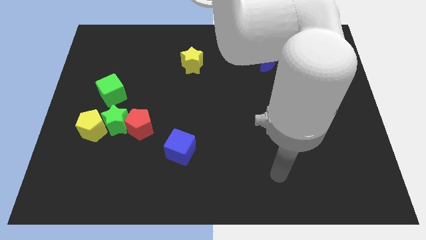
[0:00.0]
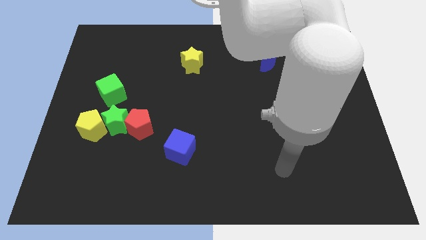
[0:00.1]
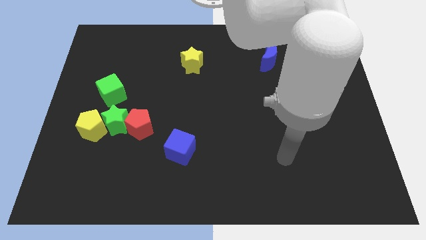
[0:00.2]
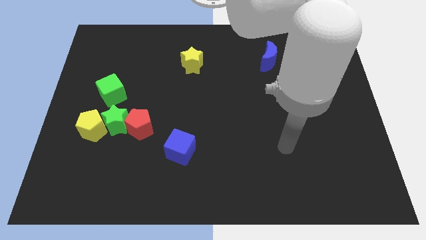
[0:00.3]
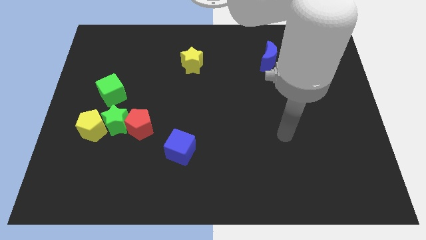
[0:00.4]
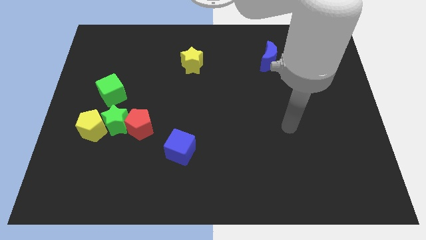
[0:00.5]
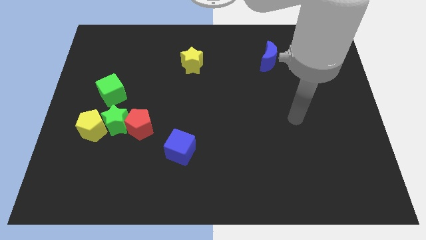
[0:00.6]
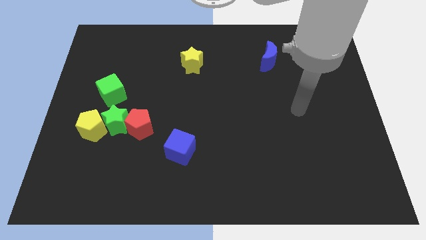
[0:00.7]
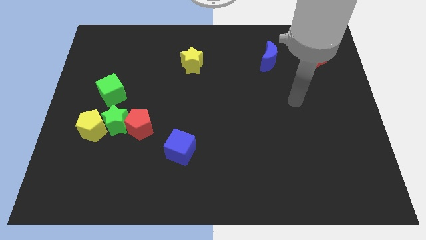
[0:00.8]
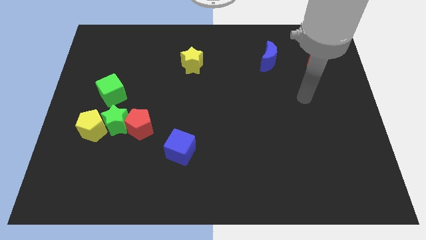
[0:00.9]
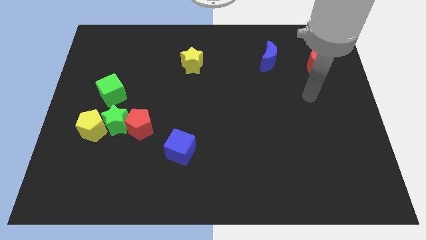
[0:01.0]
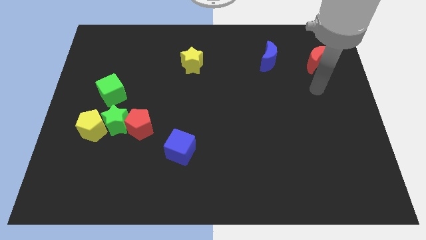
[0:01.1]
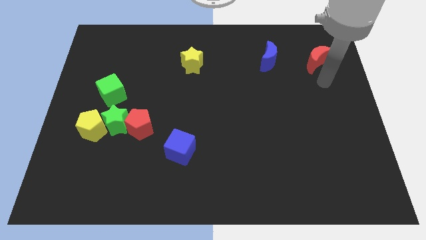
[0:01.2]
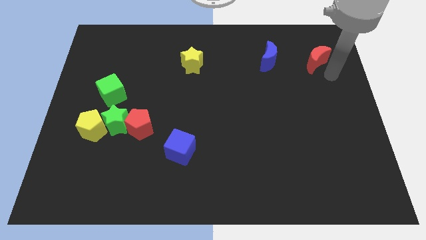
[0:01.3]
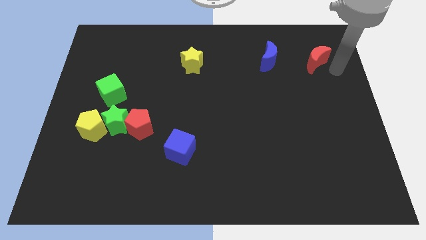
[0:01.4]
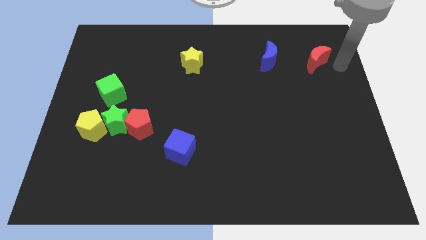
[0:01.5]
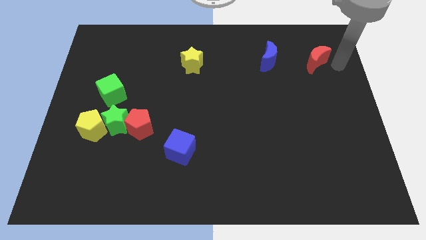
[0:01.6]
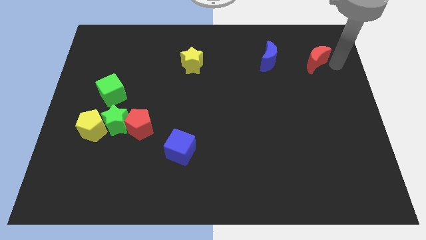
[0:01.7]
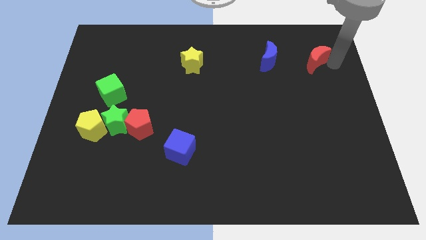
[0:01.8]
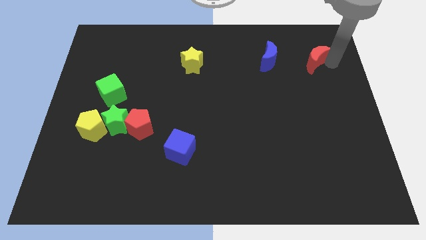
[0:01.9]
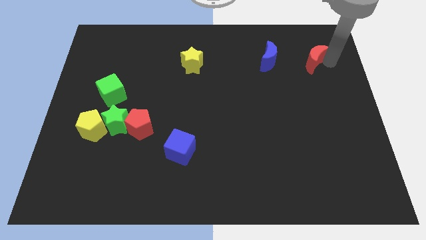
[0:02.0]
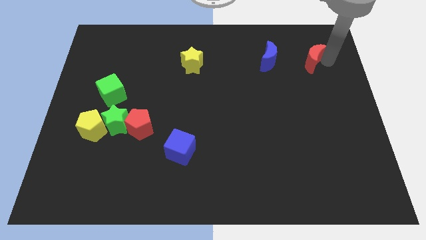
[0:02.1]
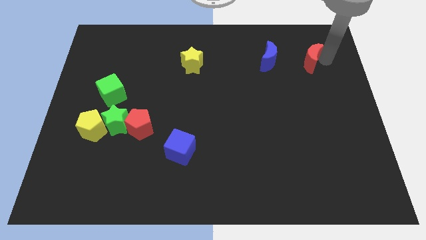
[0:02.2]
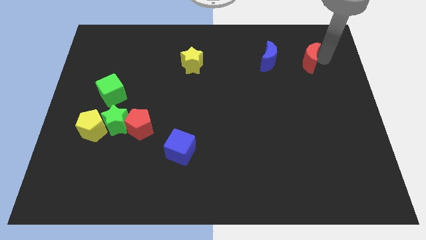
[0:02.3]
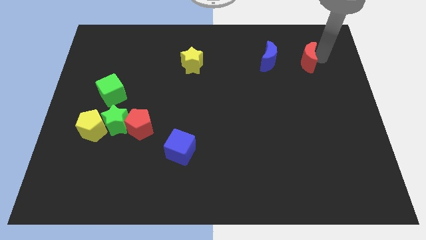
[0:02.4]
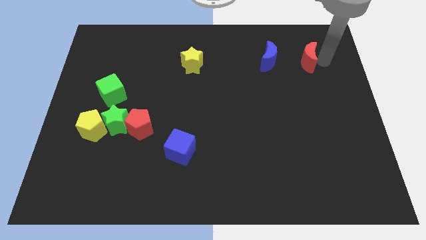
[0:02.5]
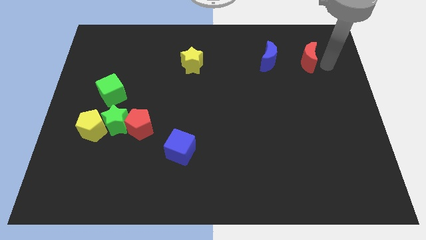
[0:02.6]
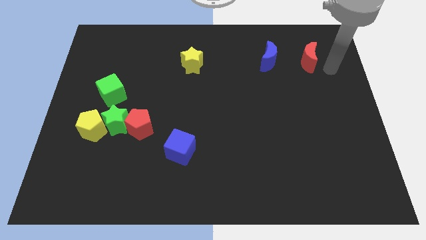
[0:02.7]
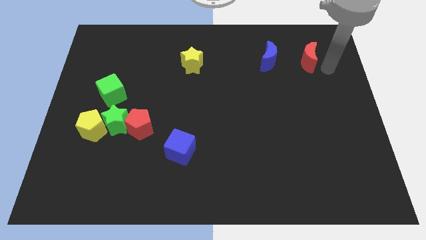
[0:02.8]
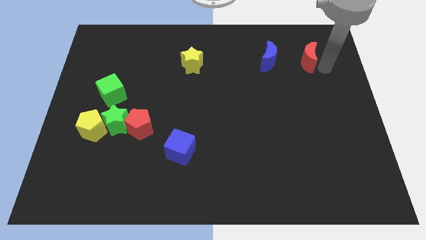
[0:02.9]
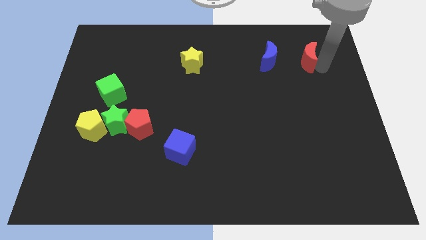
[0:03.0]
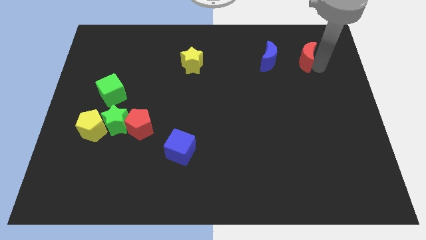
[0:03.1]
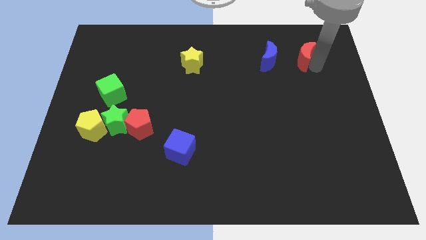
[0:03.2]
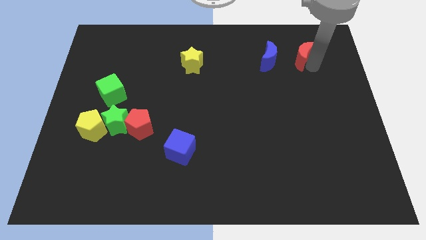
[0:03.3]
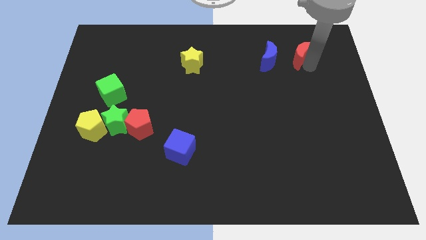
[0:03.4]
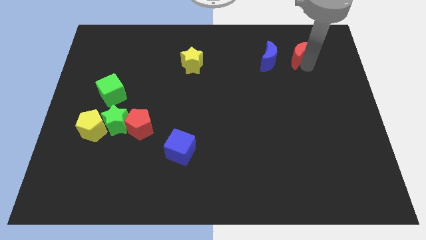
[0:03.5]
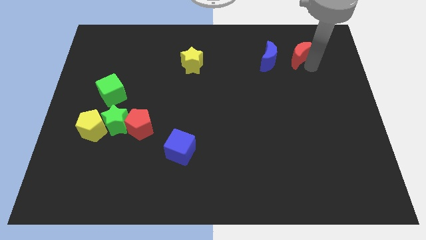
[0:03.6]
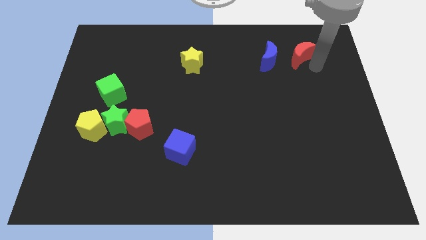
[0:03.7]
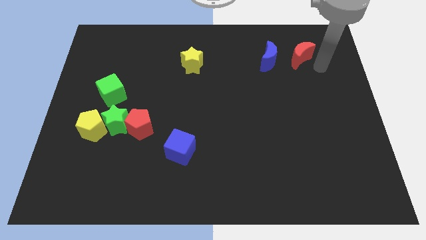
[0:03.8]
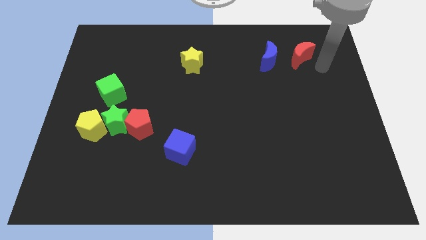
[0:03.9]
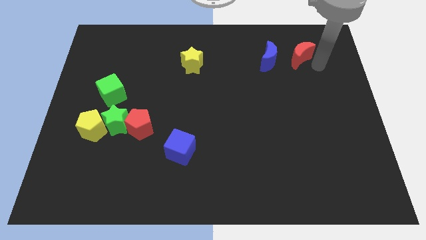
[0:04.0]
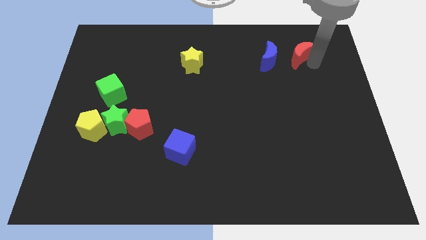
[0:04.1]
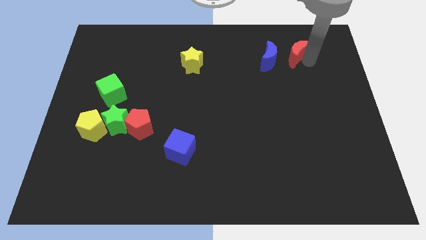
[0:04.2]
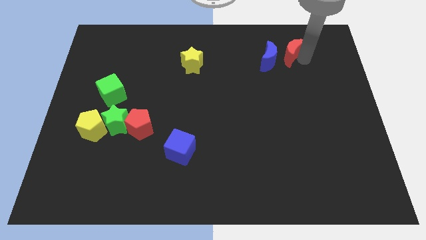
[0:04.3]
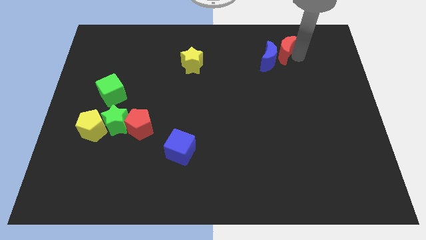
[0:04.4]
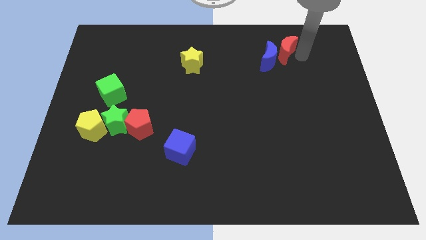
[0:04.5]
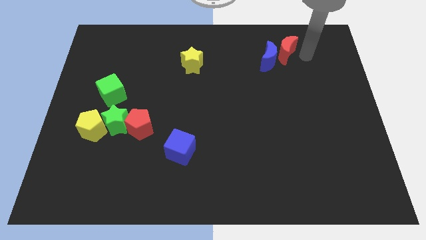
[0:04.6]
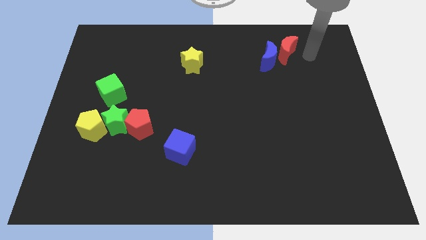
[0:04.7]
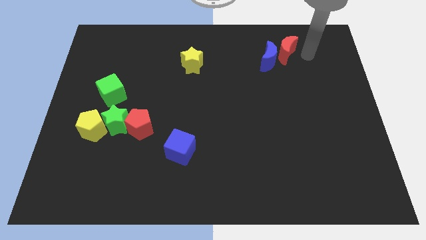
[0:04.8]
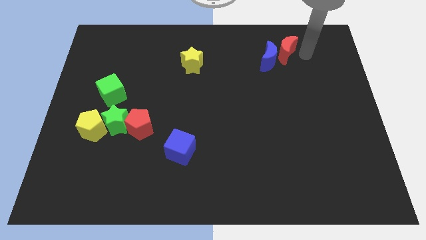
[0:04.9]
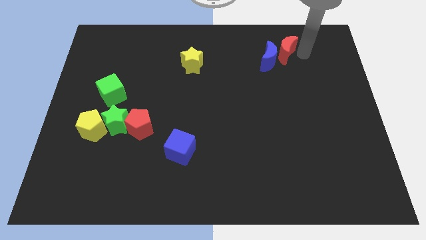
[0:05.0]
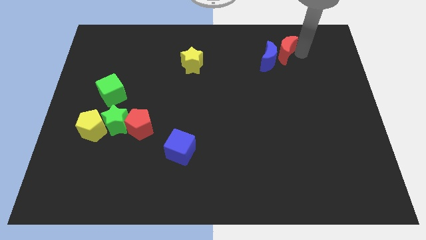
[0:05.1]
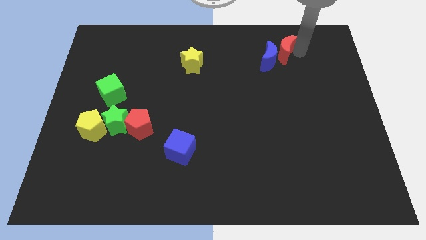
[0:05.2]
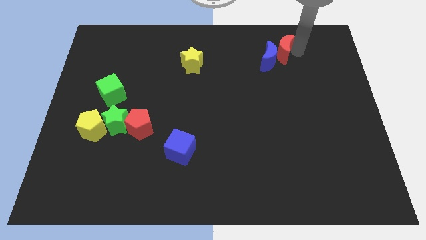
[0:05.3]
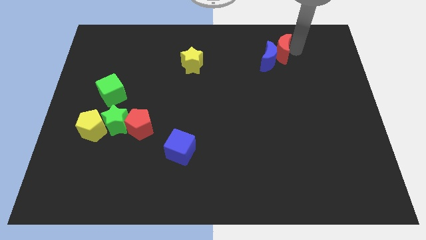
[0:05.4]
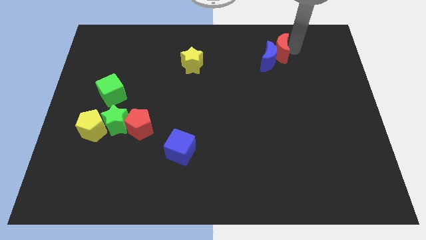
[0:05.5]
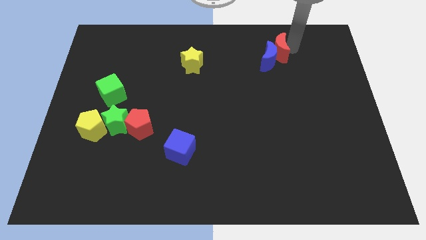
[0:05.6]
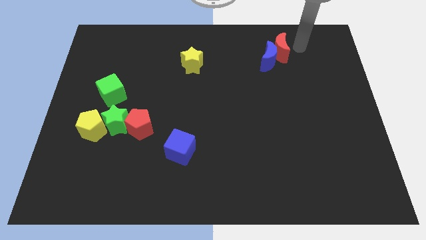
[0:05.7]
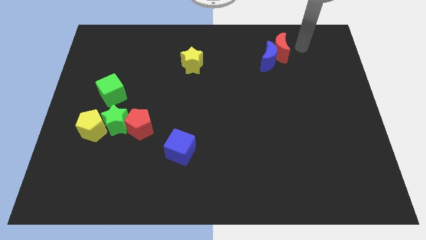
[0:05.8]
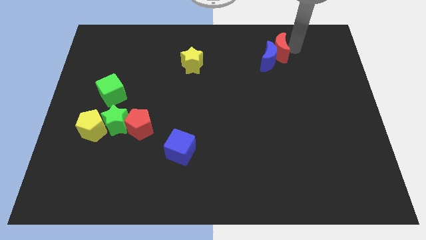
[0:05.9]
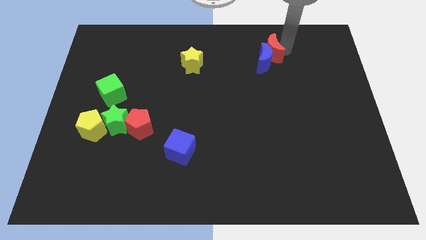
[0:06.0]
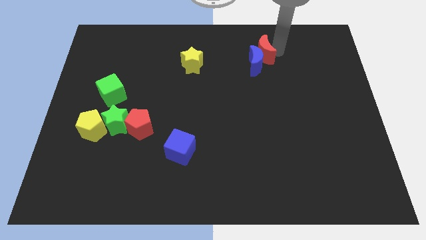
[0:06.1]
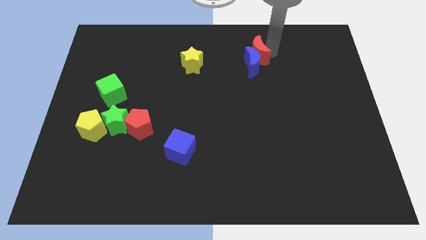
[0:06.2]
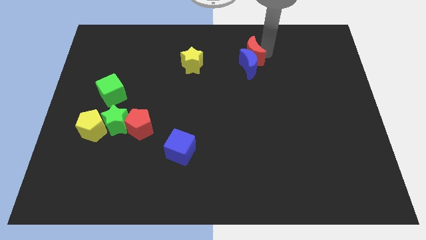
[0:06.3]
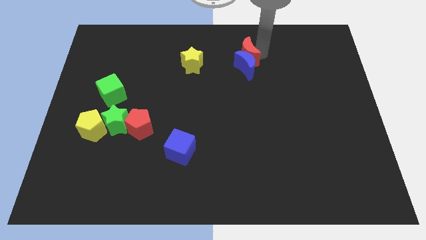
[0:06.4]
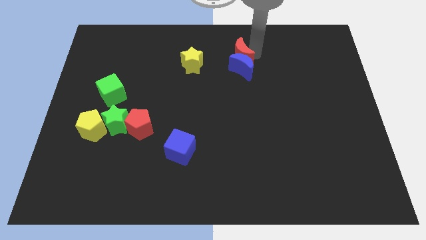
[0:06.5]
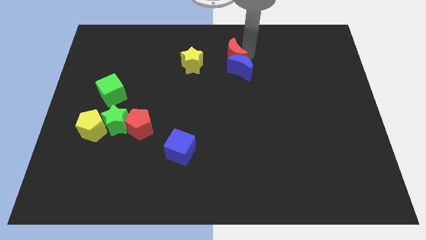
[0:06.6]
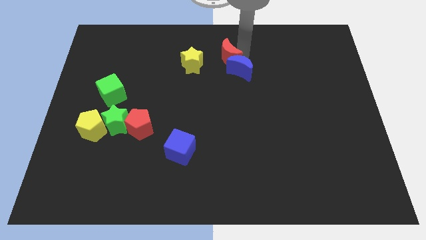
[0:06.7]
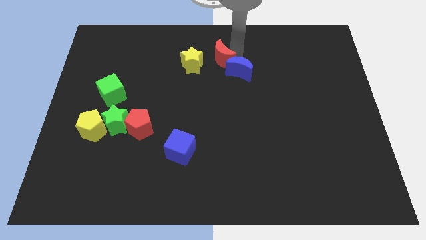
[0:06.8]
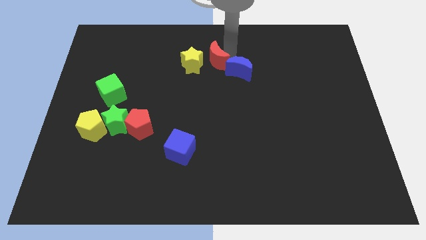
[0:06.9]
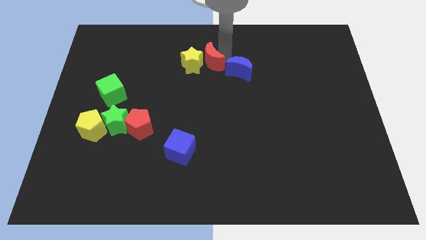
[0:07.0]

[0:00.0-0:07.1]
push the red moon next to the yellow star
